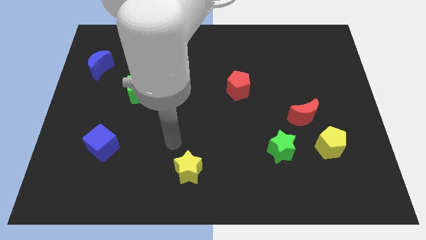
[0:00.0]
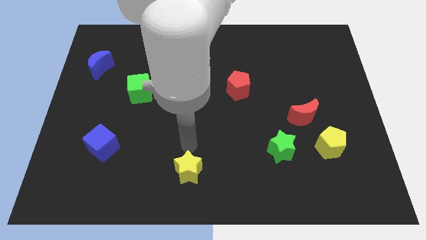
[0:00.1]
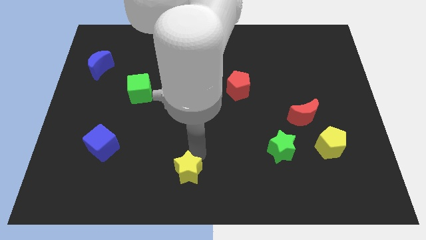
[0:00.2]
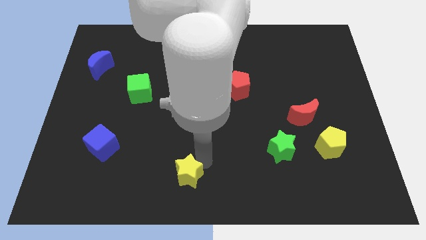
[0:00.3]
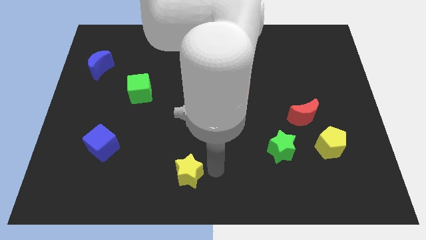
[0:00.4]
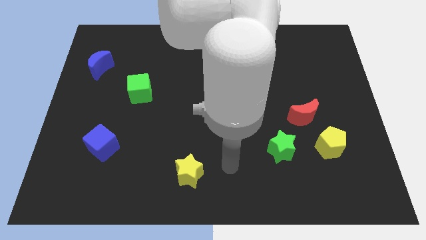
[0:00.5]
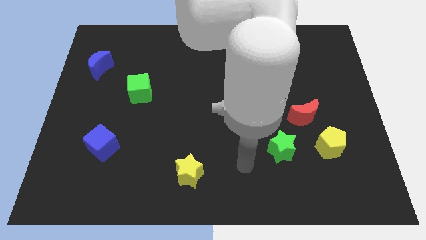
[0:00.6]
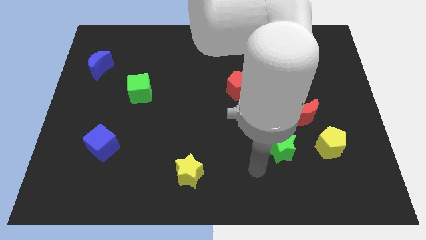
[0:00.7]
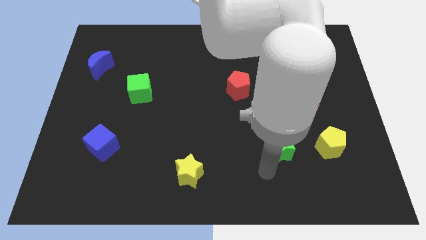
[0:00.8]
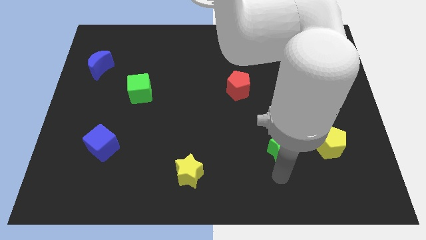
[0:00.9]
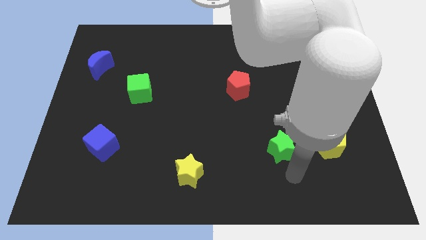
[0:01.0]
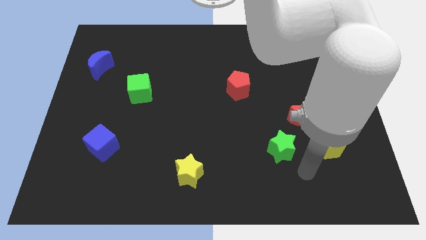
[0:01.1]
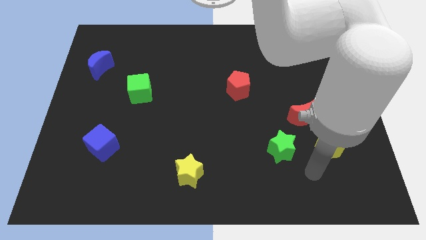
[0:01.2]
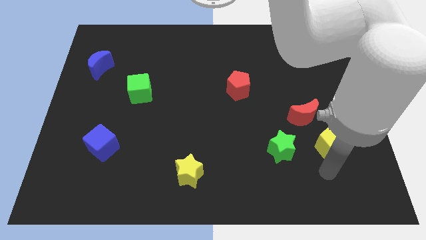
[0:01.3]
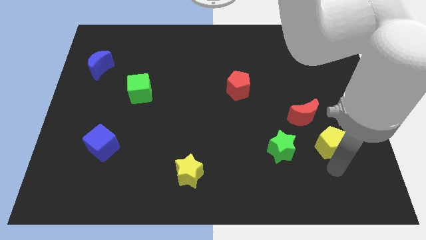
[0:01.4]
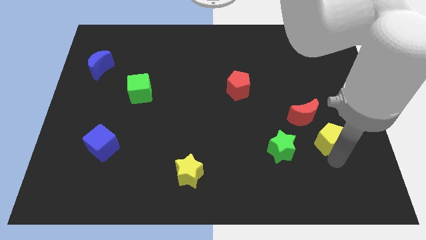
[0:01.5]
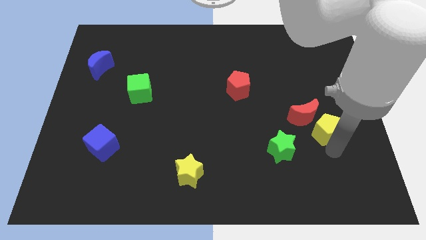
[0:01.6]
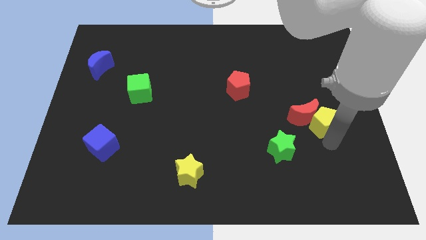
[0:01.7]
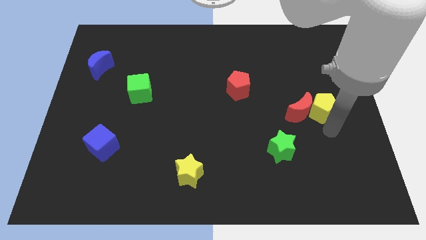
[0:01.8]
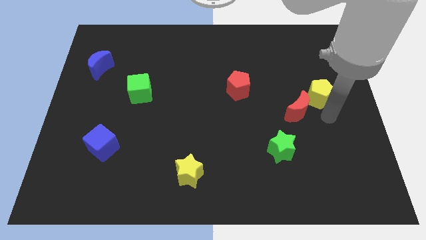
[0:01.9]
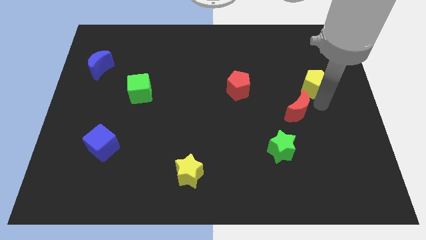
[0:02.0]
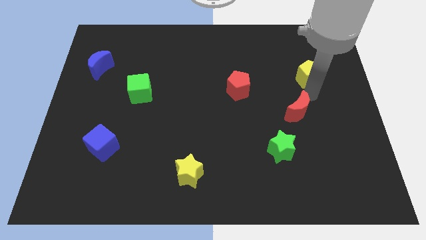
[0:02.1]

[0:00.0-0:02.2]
pull the red moon apart from the yellow pentagon

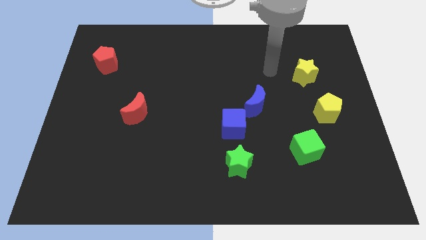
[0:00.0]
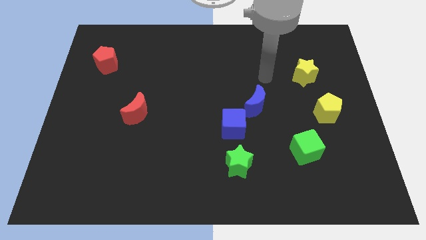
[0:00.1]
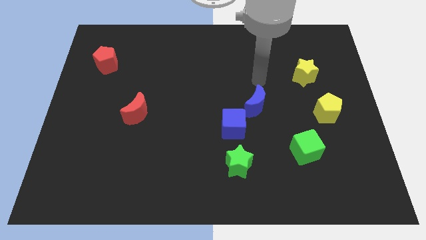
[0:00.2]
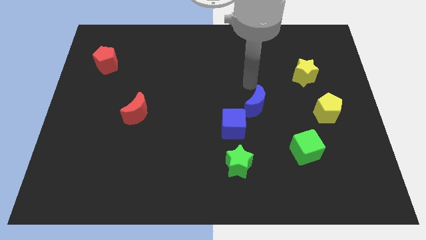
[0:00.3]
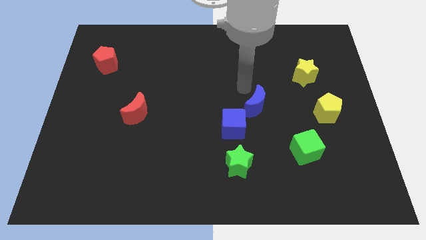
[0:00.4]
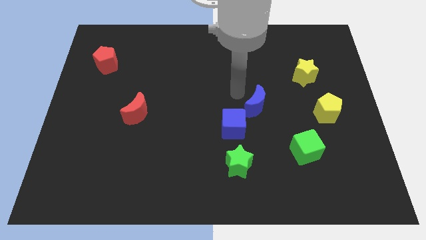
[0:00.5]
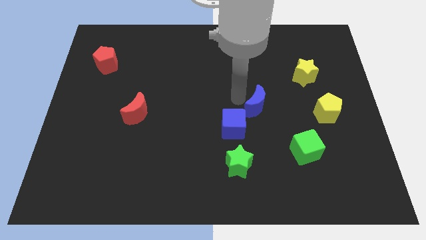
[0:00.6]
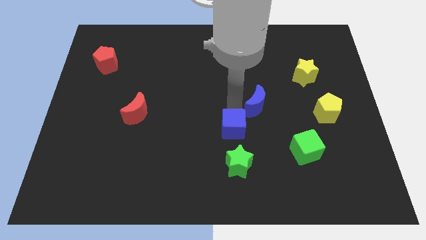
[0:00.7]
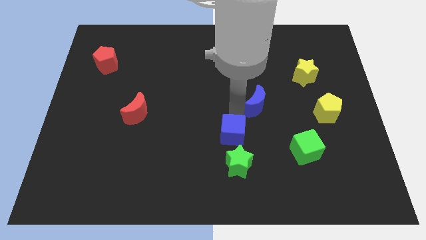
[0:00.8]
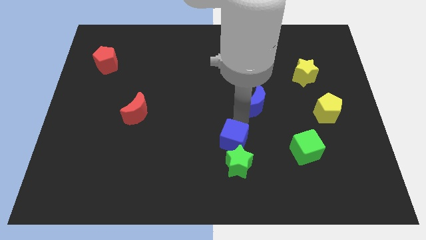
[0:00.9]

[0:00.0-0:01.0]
separate the blue moon from the blue cube

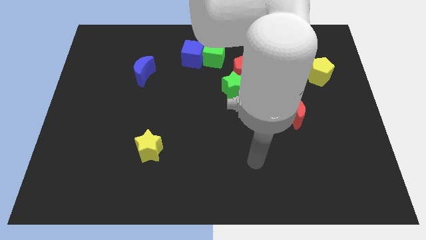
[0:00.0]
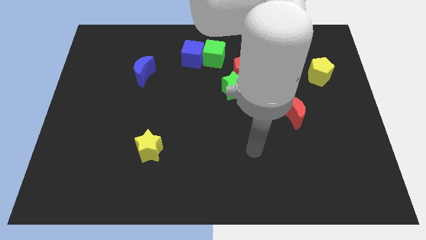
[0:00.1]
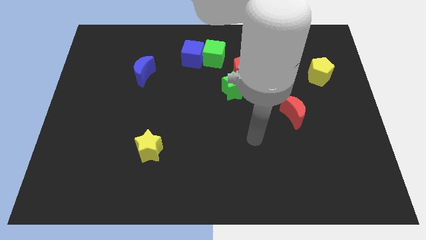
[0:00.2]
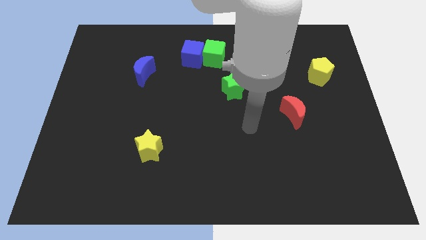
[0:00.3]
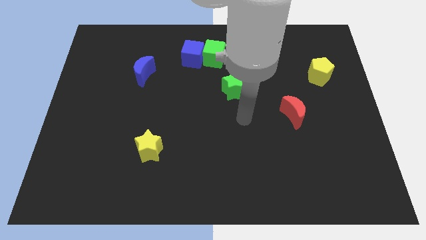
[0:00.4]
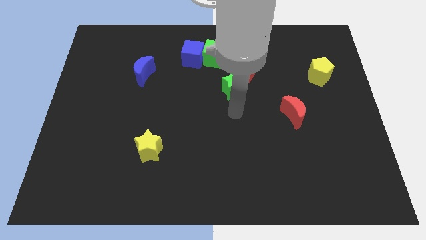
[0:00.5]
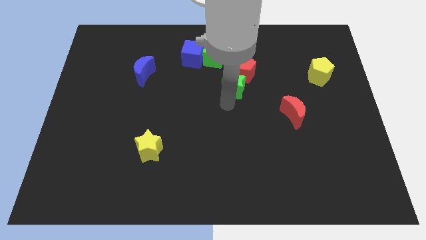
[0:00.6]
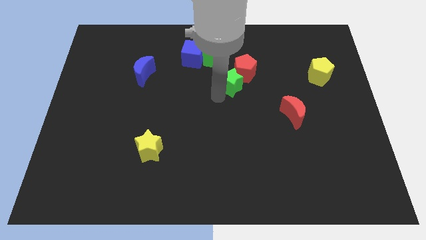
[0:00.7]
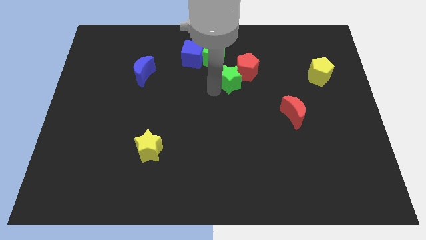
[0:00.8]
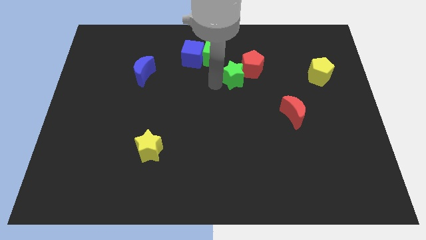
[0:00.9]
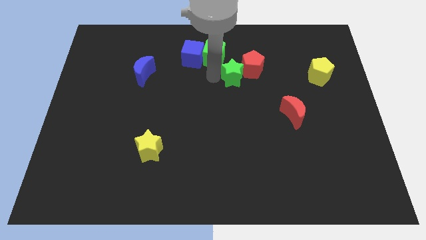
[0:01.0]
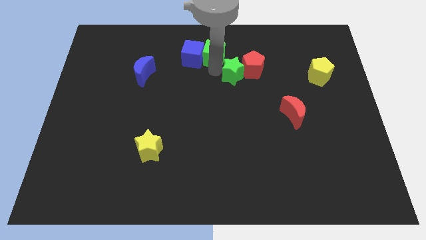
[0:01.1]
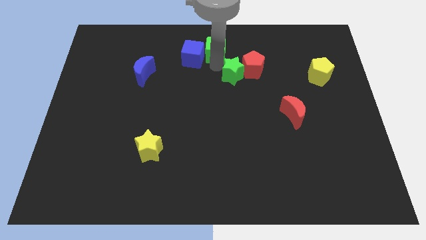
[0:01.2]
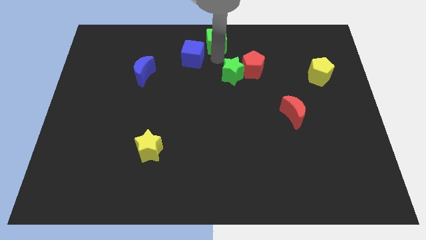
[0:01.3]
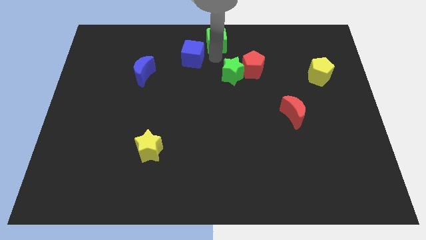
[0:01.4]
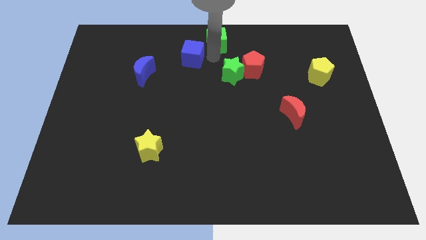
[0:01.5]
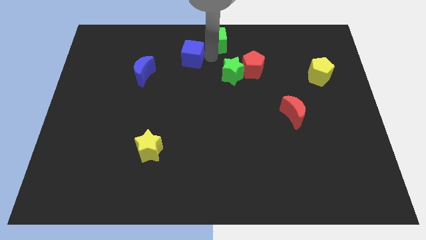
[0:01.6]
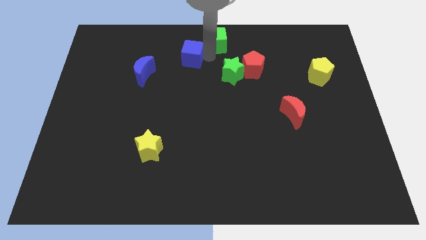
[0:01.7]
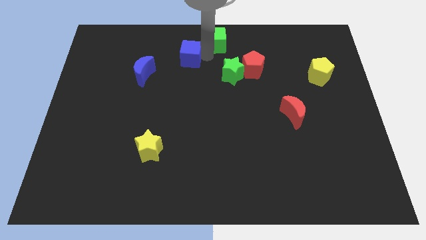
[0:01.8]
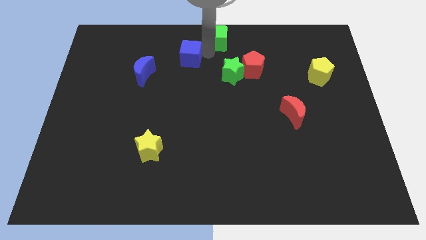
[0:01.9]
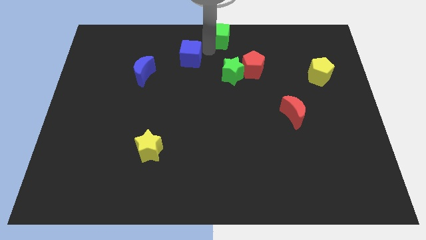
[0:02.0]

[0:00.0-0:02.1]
move the blue cube away from the green cube

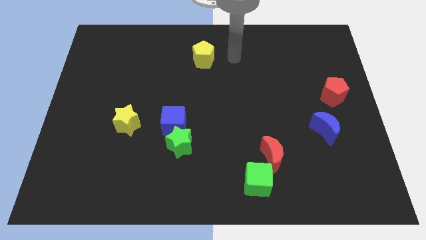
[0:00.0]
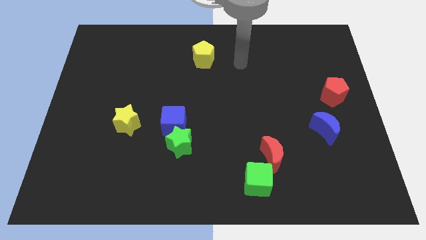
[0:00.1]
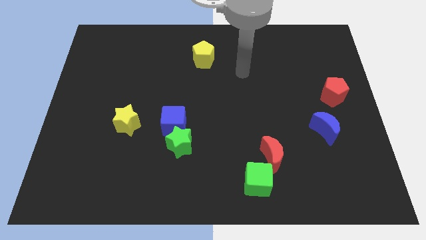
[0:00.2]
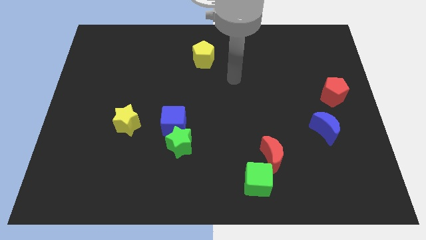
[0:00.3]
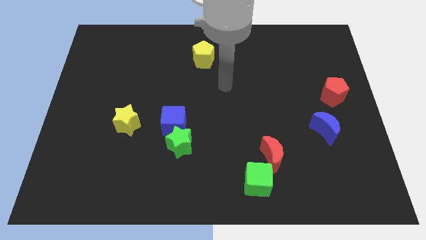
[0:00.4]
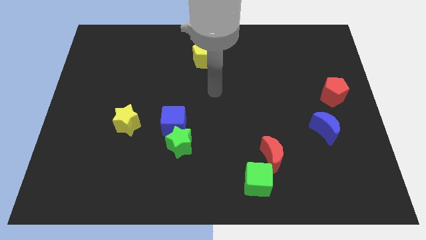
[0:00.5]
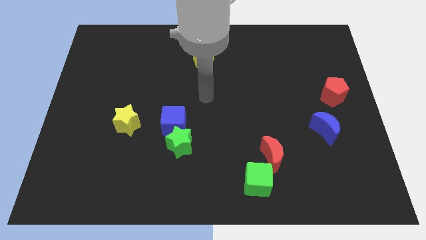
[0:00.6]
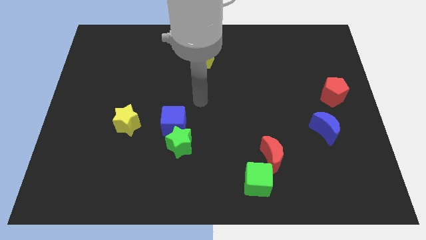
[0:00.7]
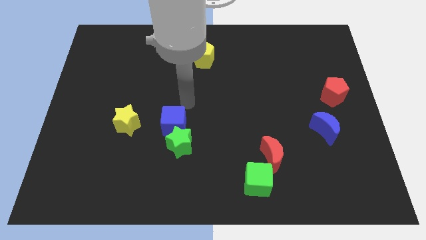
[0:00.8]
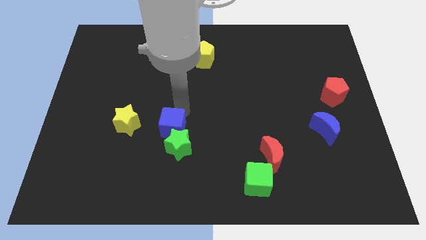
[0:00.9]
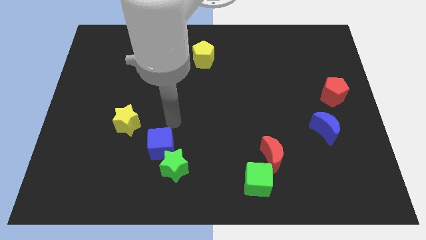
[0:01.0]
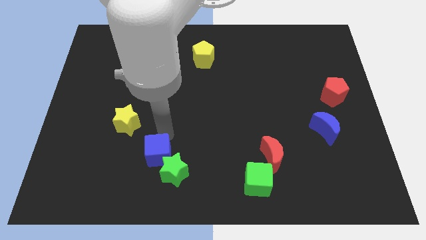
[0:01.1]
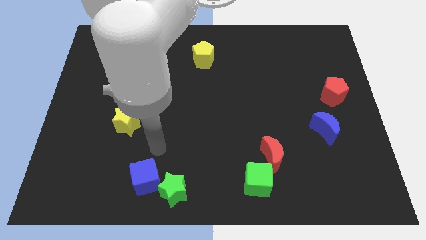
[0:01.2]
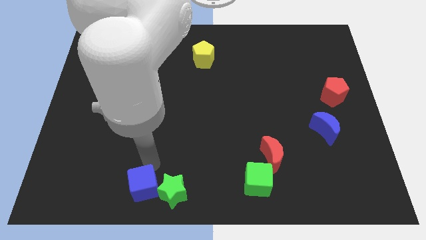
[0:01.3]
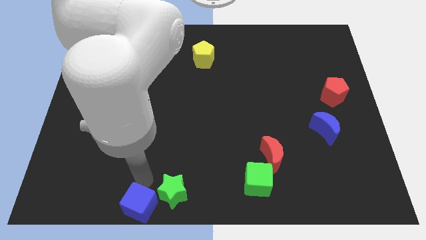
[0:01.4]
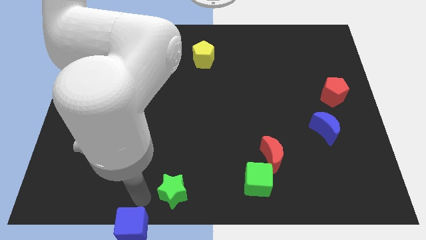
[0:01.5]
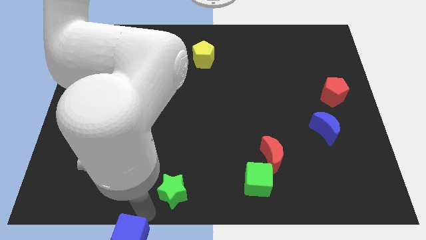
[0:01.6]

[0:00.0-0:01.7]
separate the green star from the blue cube

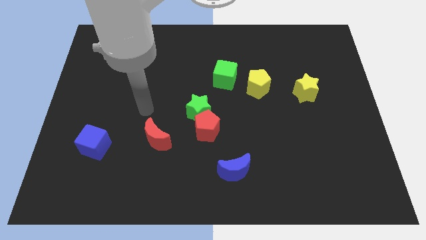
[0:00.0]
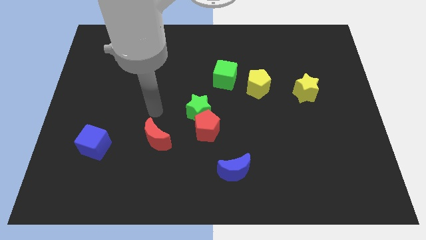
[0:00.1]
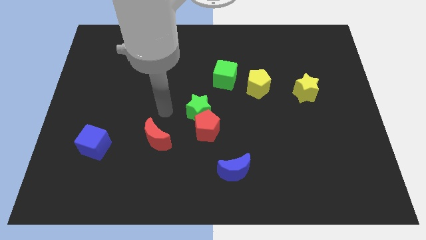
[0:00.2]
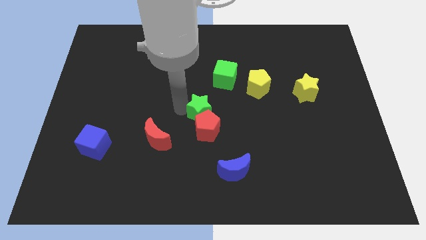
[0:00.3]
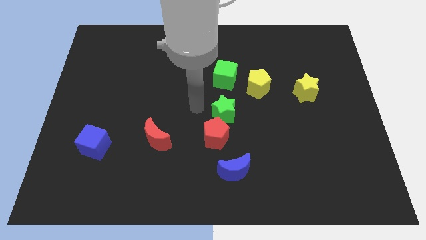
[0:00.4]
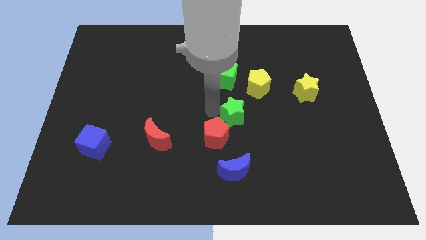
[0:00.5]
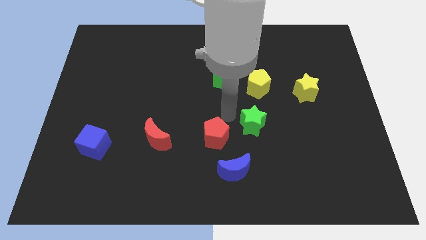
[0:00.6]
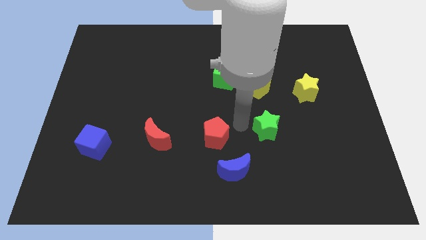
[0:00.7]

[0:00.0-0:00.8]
pull the red pentagon apart from the green star

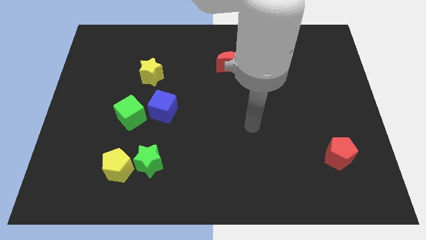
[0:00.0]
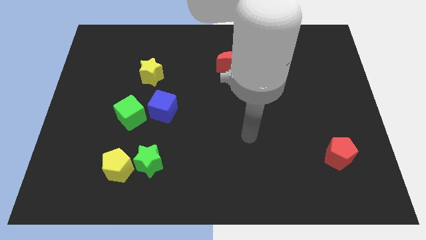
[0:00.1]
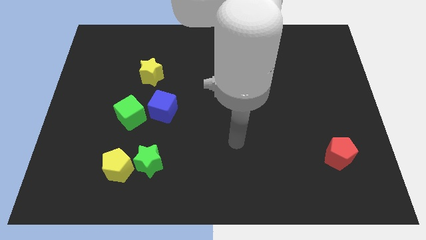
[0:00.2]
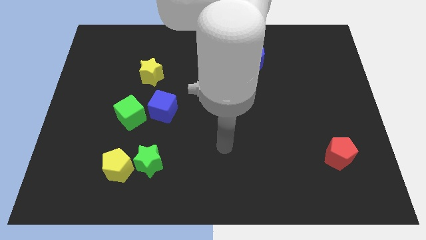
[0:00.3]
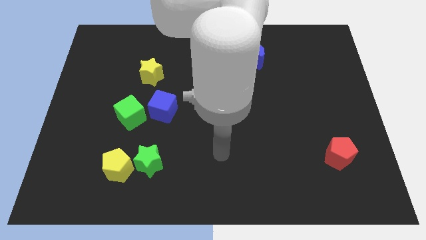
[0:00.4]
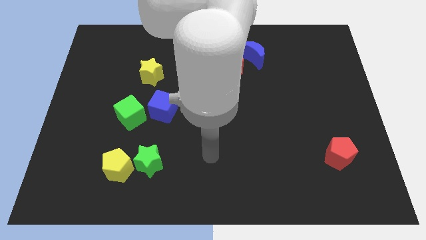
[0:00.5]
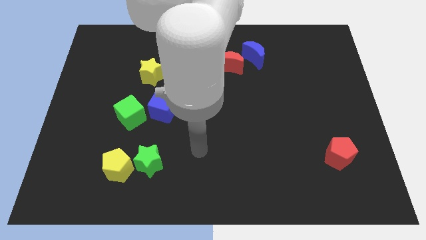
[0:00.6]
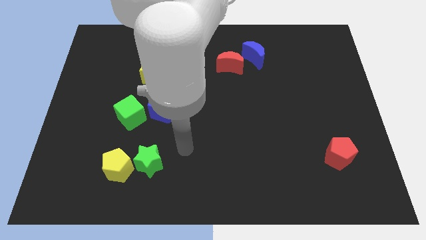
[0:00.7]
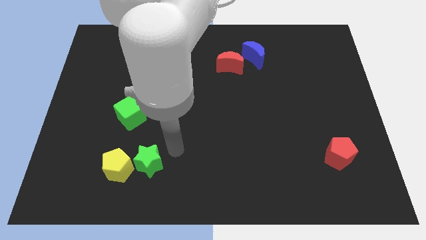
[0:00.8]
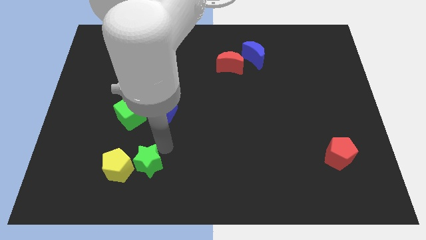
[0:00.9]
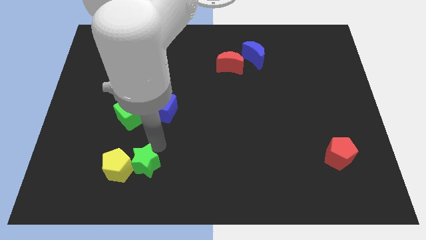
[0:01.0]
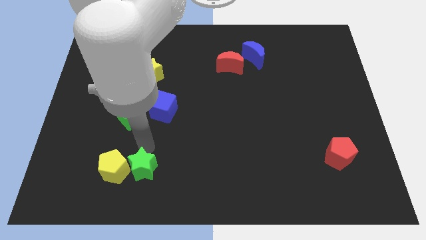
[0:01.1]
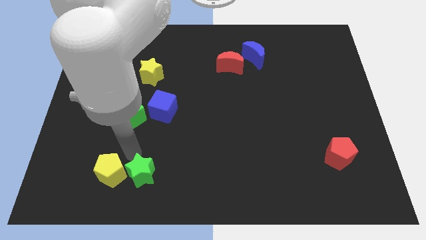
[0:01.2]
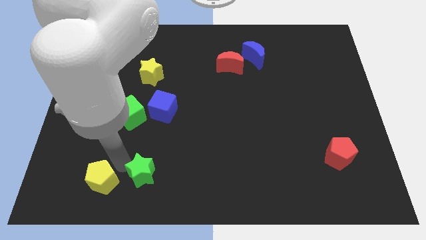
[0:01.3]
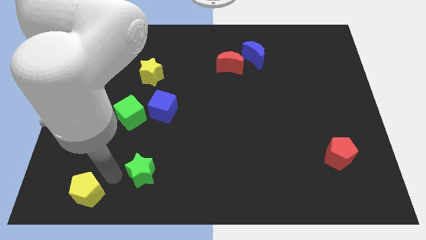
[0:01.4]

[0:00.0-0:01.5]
move the green star away from the yellow pentagon
